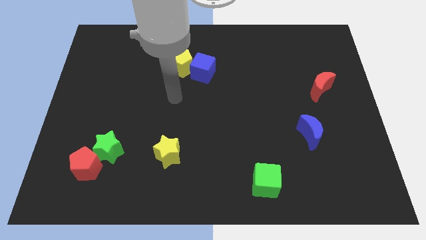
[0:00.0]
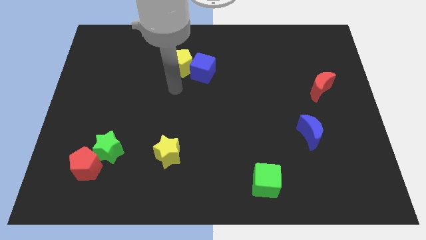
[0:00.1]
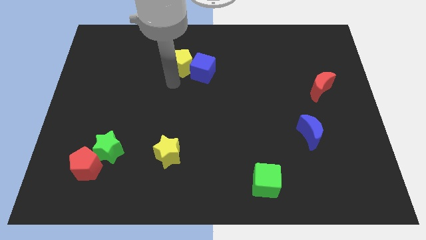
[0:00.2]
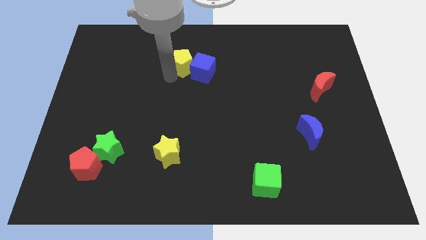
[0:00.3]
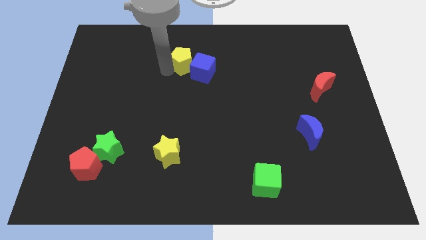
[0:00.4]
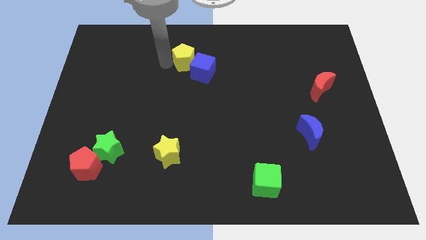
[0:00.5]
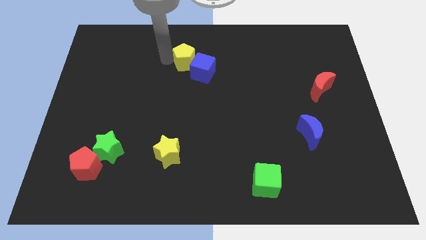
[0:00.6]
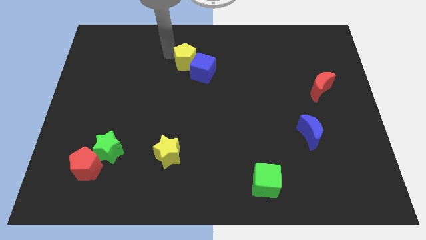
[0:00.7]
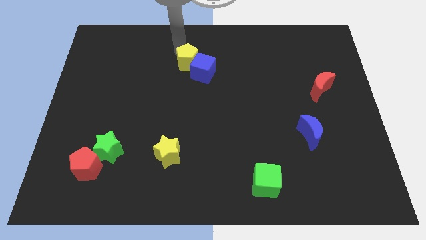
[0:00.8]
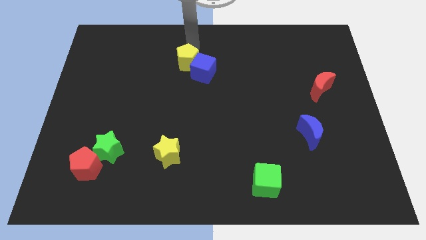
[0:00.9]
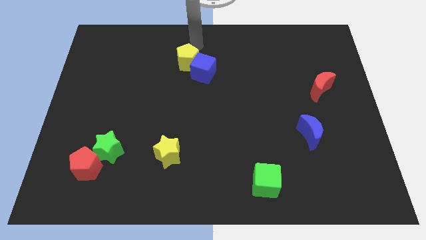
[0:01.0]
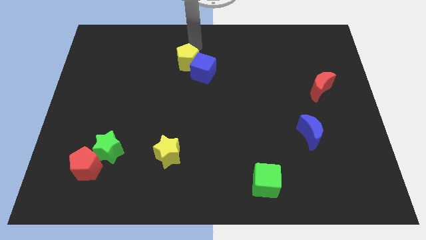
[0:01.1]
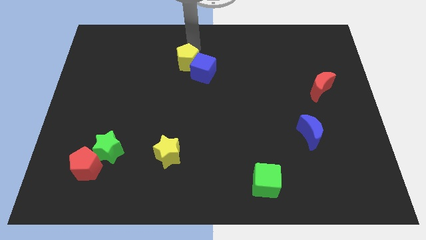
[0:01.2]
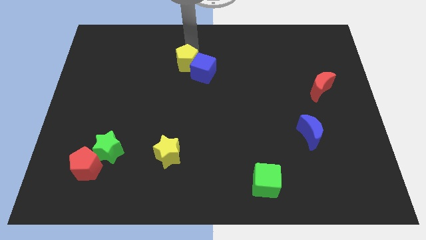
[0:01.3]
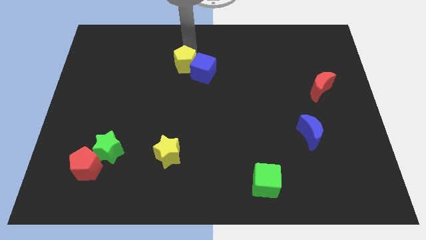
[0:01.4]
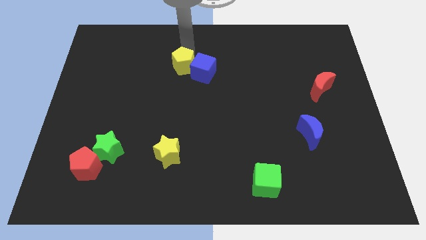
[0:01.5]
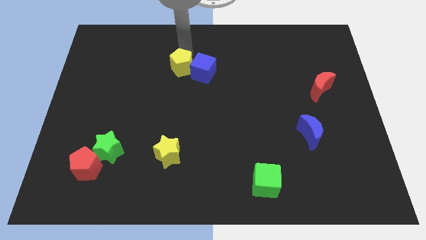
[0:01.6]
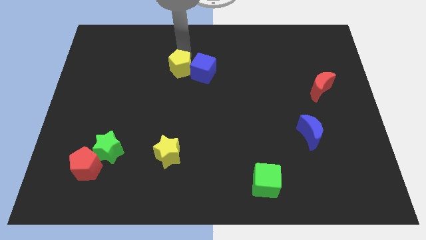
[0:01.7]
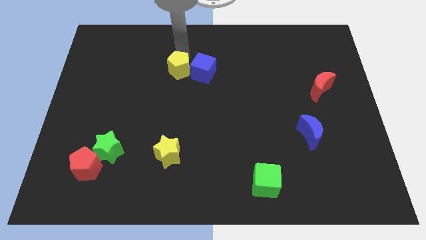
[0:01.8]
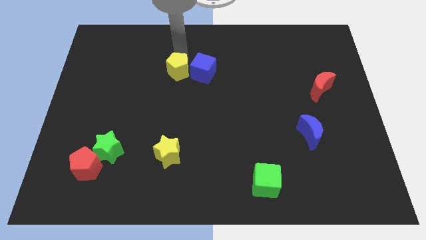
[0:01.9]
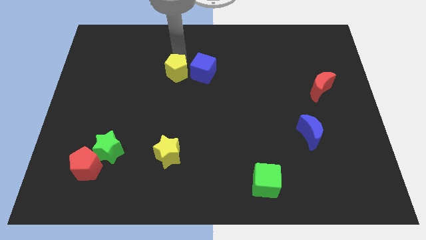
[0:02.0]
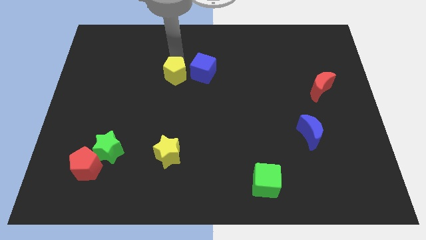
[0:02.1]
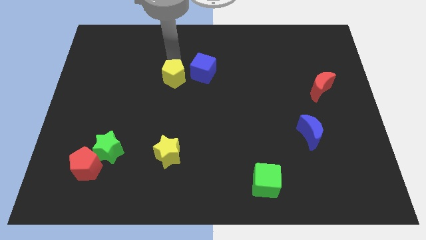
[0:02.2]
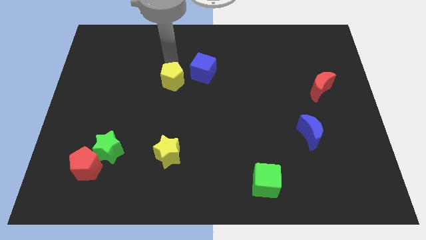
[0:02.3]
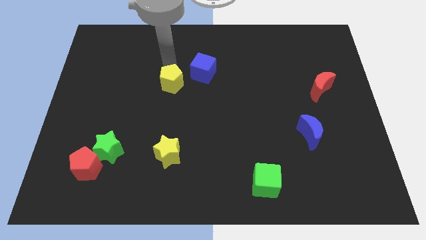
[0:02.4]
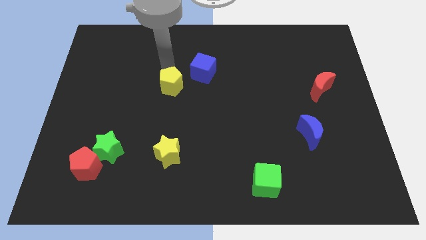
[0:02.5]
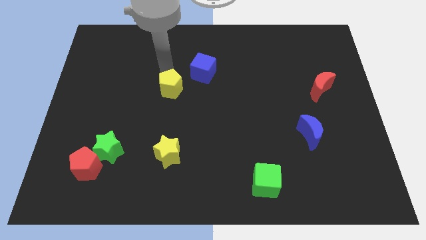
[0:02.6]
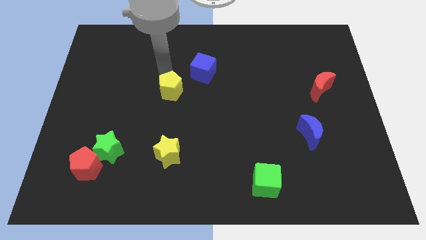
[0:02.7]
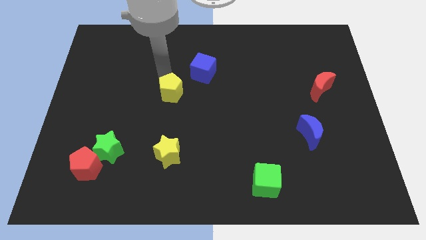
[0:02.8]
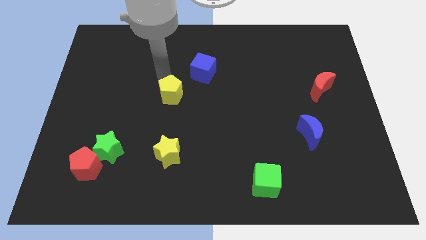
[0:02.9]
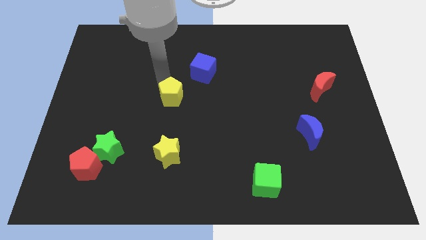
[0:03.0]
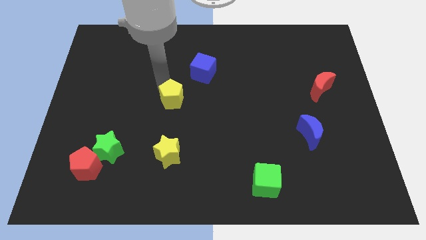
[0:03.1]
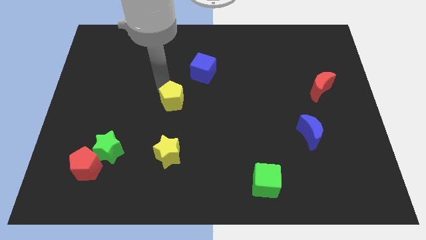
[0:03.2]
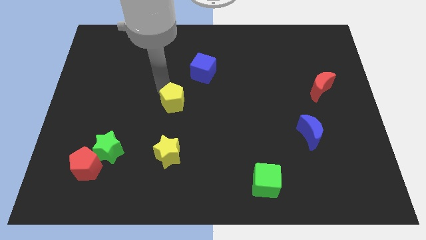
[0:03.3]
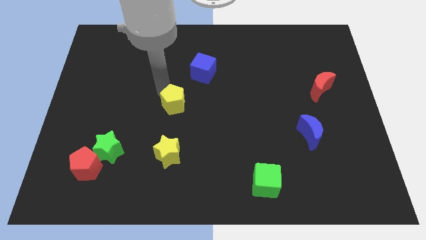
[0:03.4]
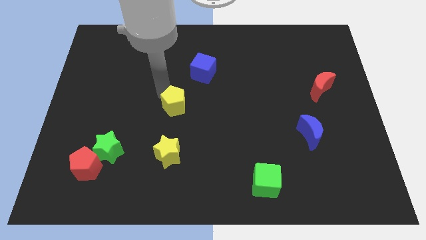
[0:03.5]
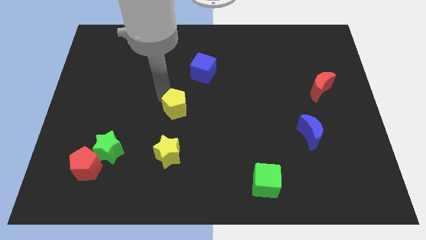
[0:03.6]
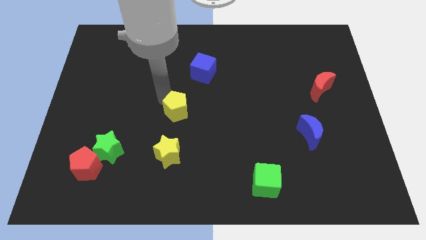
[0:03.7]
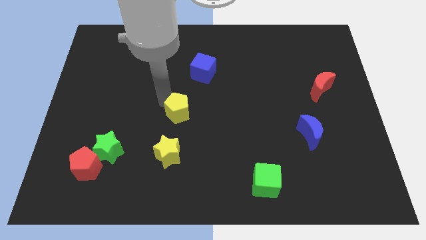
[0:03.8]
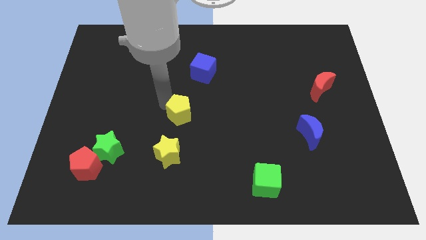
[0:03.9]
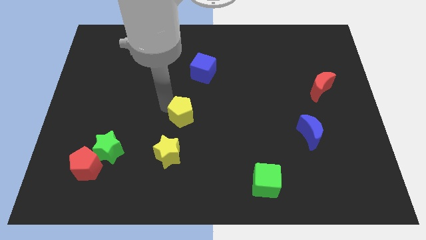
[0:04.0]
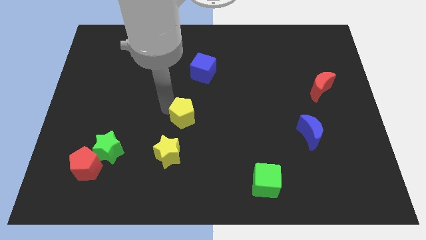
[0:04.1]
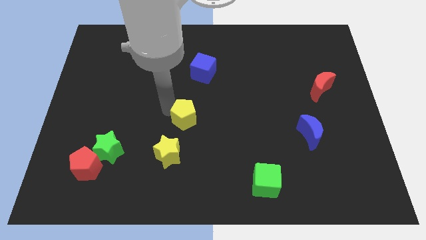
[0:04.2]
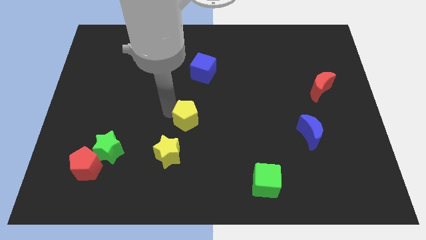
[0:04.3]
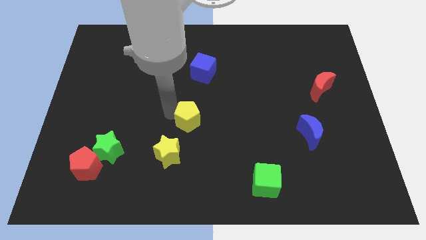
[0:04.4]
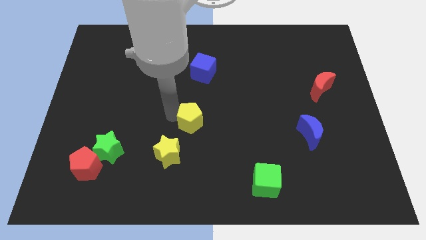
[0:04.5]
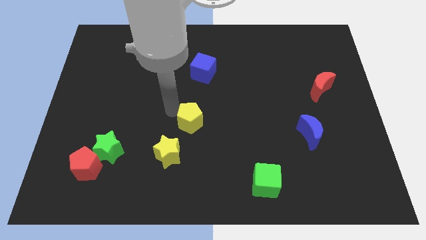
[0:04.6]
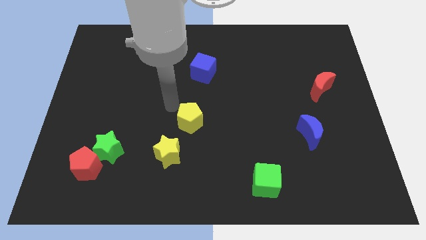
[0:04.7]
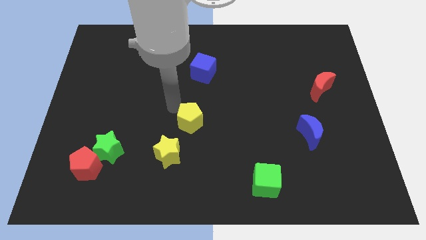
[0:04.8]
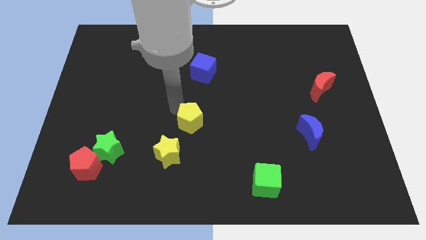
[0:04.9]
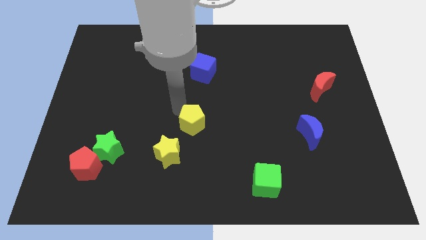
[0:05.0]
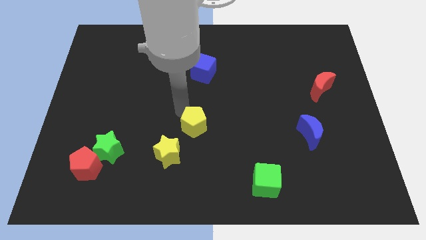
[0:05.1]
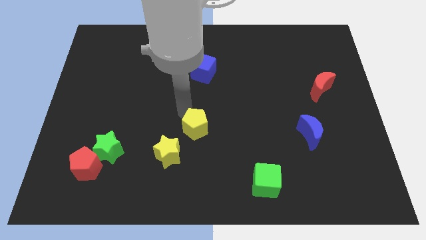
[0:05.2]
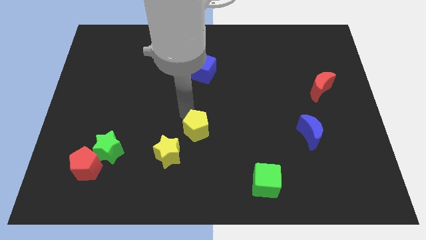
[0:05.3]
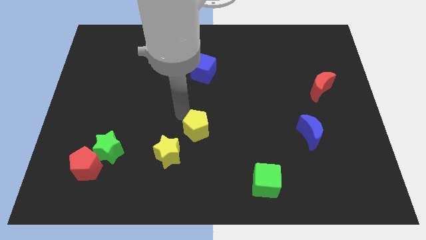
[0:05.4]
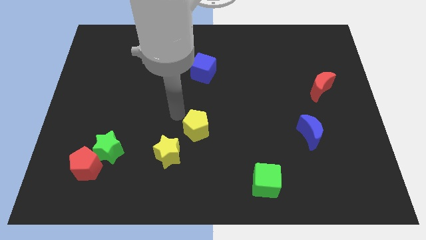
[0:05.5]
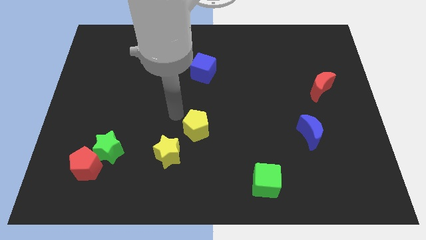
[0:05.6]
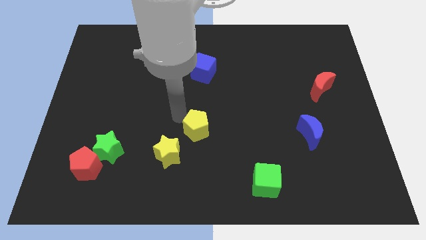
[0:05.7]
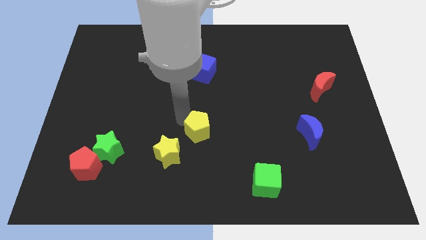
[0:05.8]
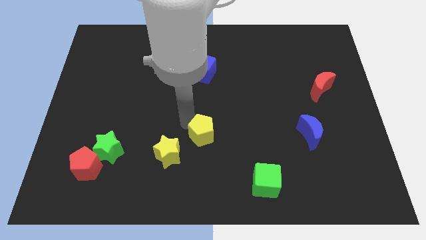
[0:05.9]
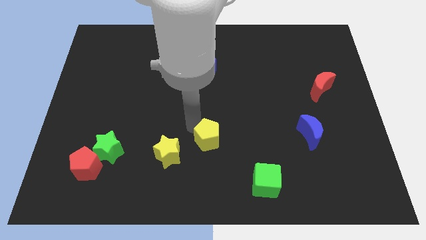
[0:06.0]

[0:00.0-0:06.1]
slide the yellow pentagon to the right side of the yellow star

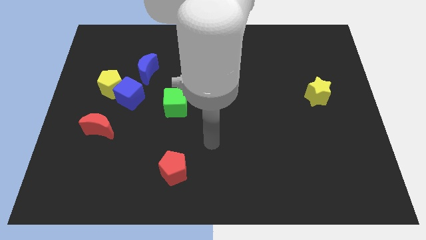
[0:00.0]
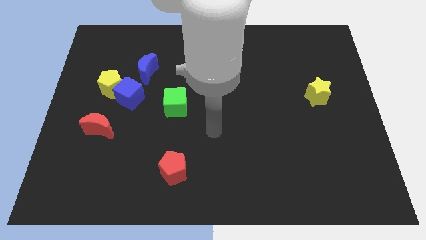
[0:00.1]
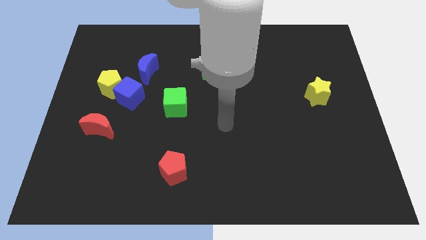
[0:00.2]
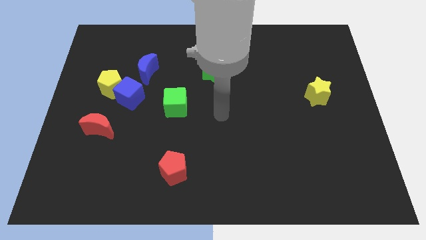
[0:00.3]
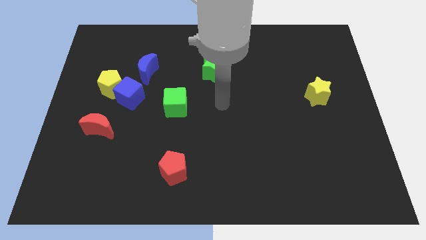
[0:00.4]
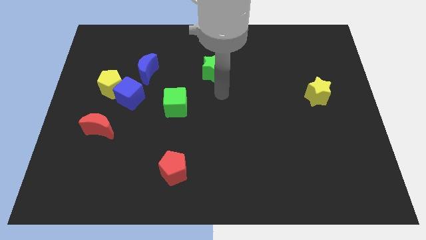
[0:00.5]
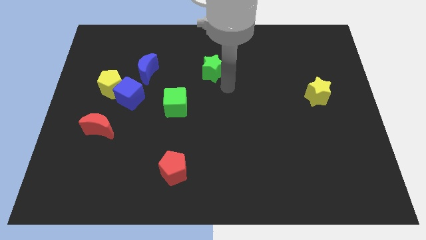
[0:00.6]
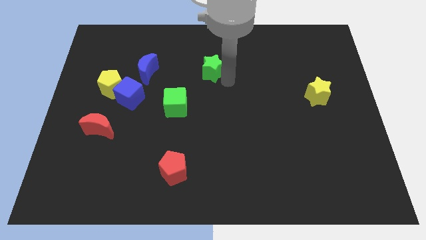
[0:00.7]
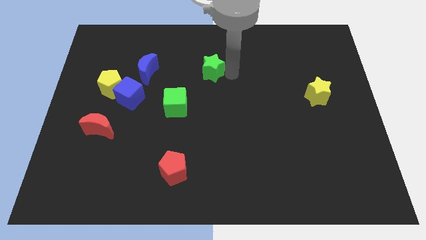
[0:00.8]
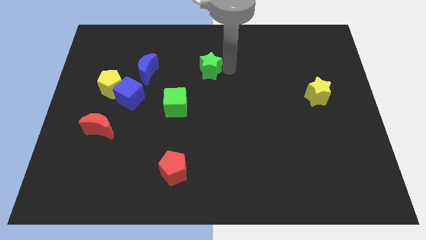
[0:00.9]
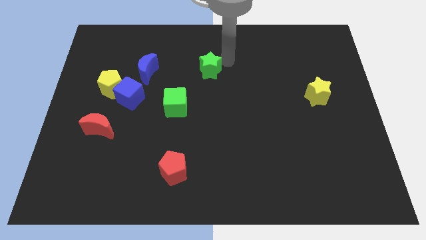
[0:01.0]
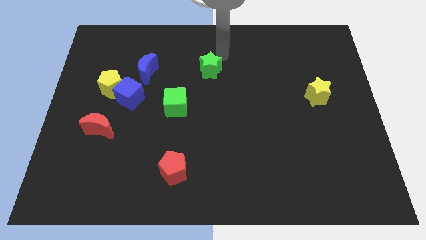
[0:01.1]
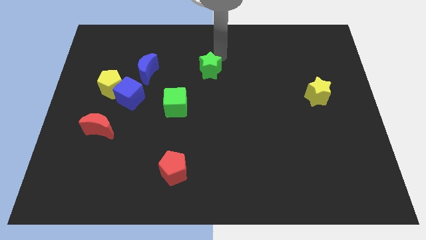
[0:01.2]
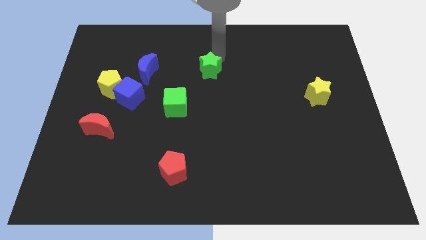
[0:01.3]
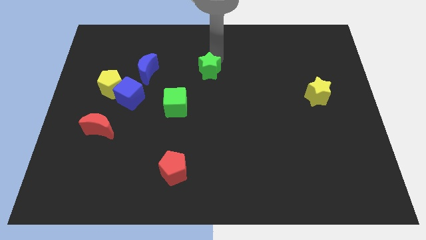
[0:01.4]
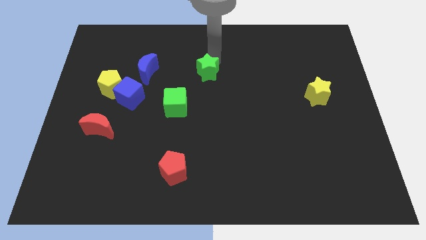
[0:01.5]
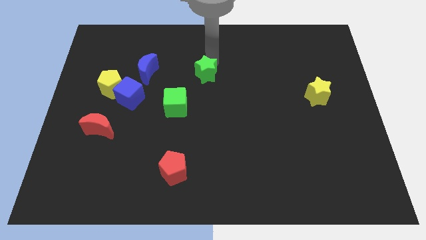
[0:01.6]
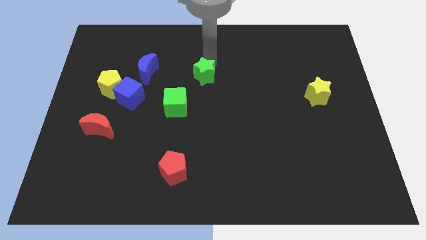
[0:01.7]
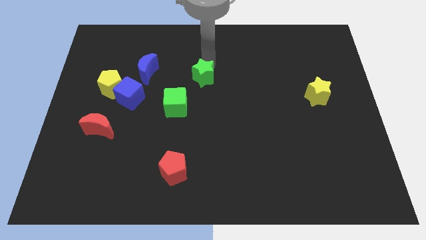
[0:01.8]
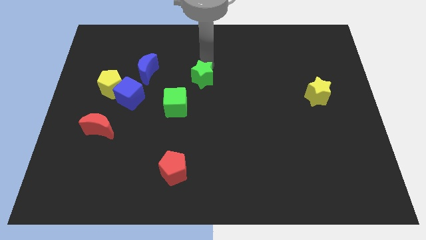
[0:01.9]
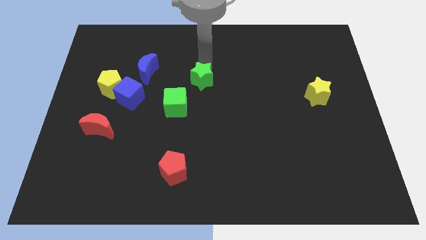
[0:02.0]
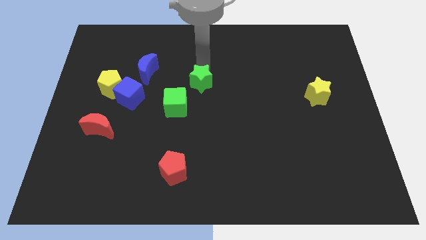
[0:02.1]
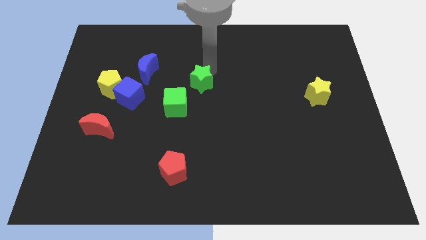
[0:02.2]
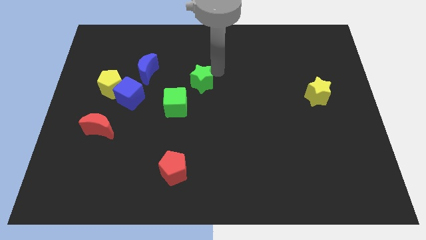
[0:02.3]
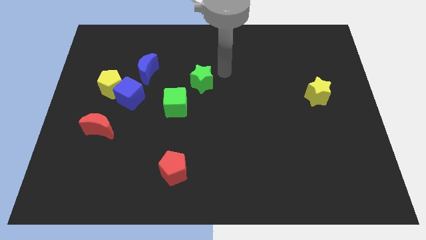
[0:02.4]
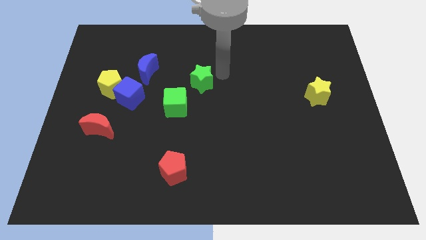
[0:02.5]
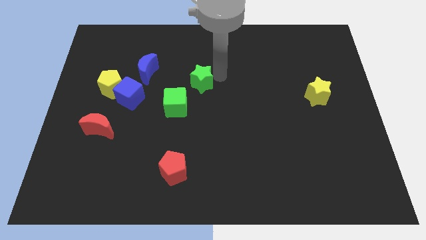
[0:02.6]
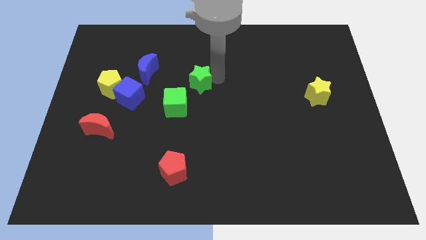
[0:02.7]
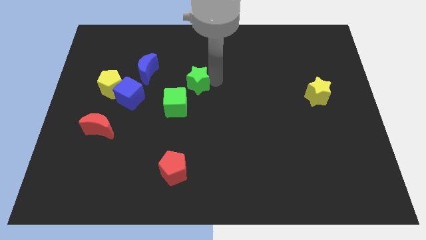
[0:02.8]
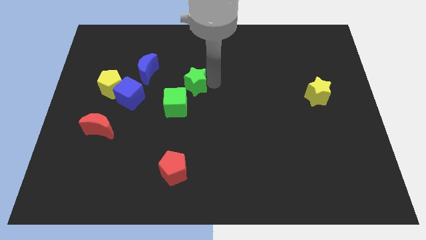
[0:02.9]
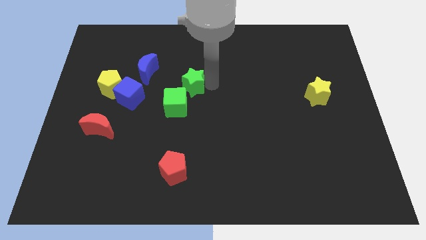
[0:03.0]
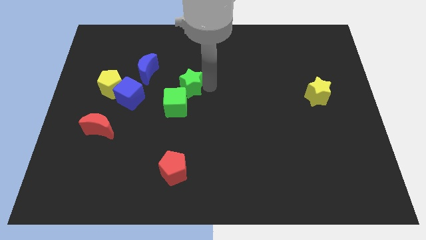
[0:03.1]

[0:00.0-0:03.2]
push the green star to the right side of the blue cube
